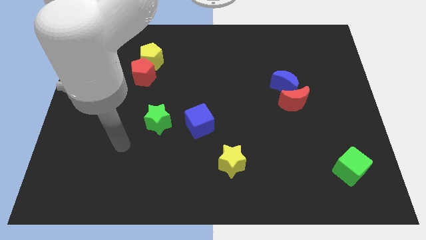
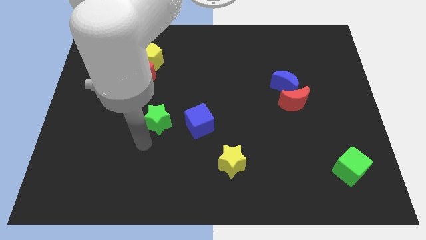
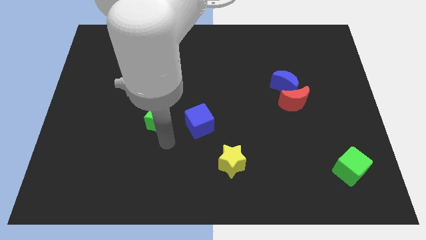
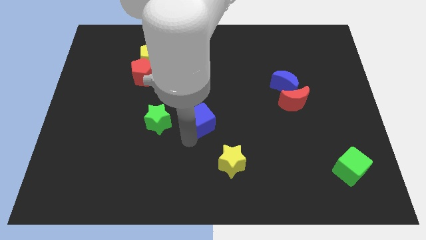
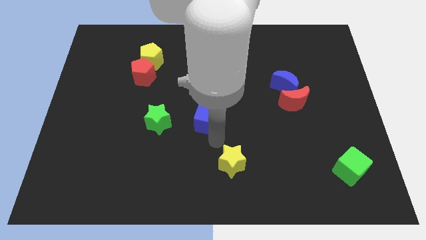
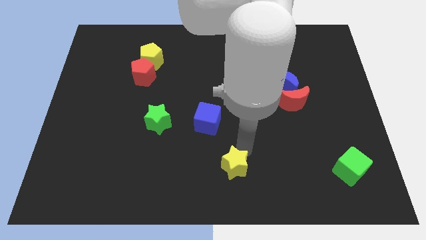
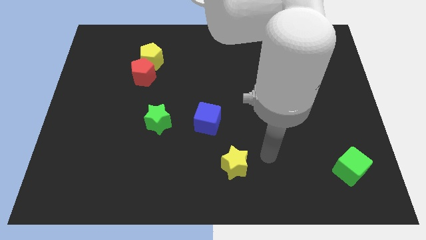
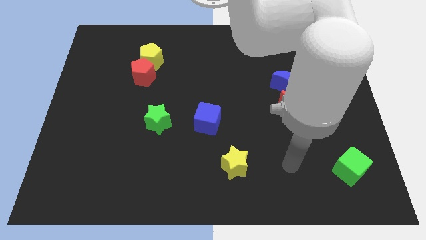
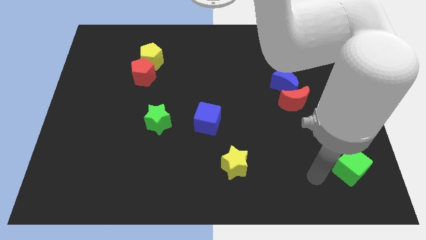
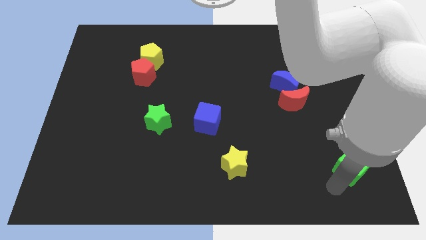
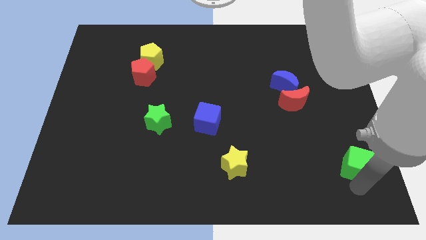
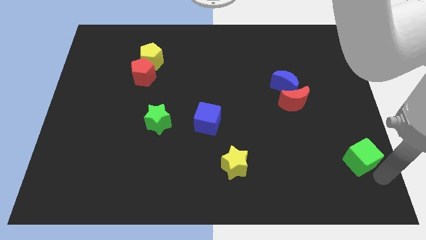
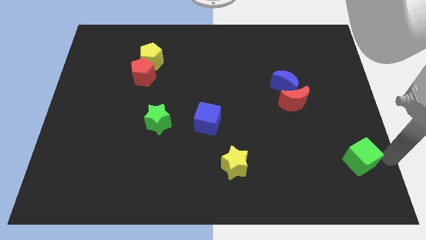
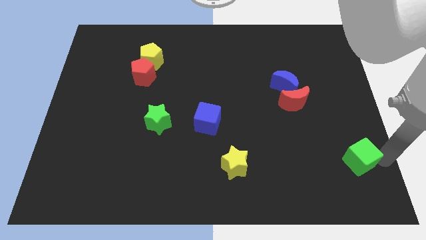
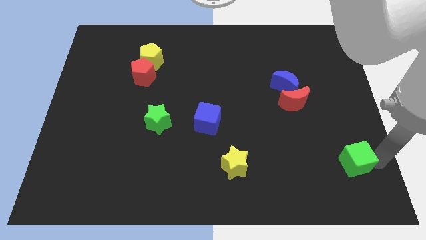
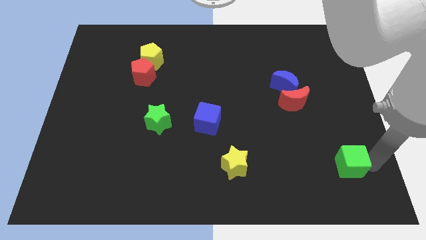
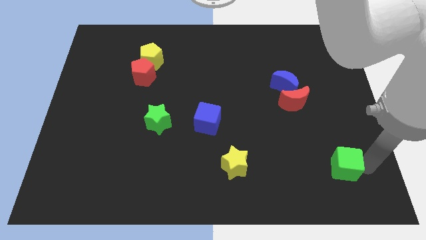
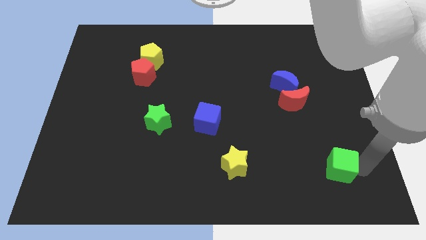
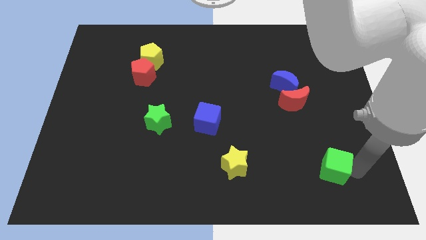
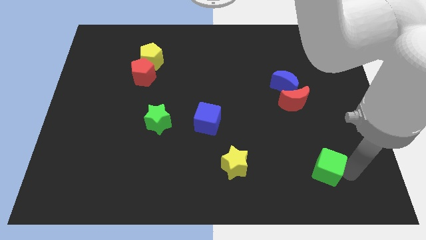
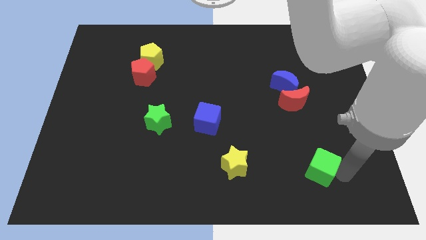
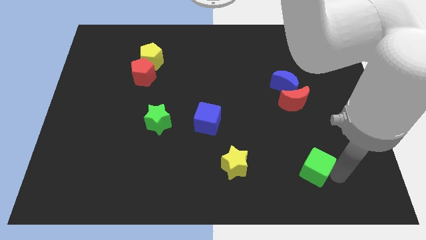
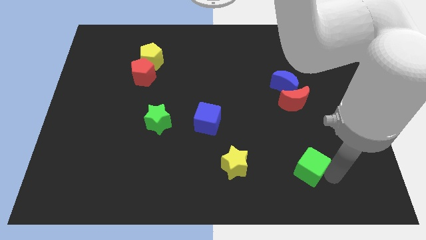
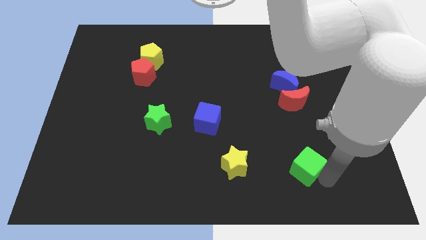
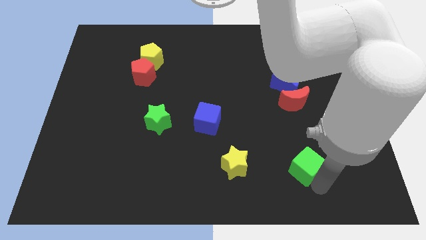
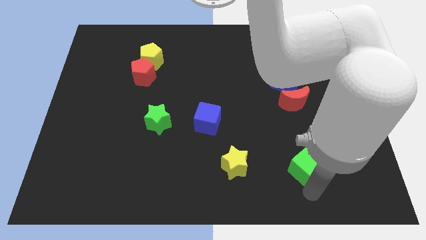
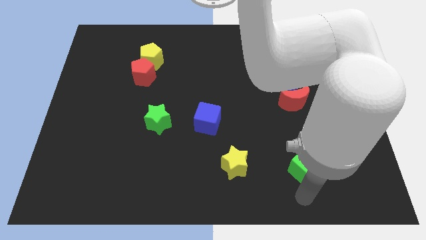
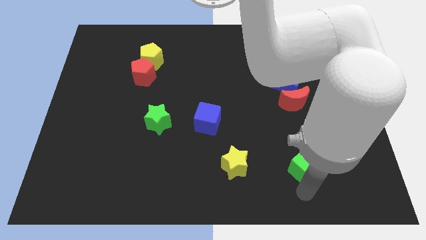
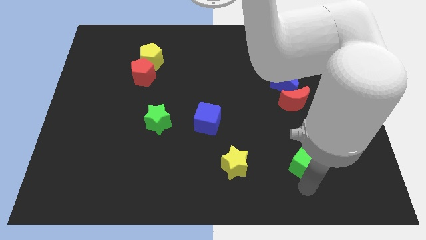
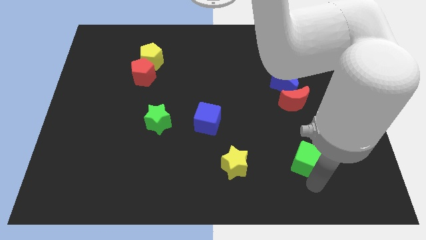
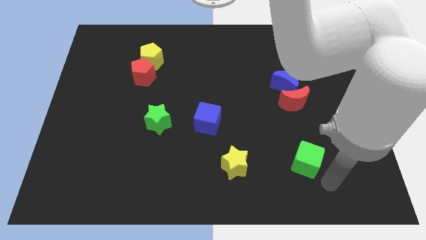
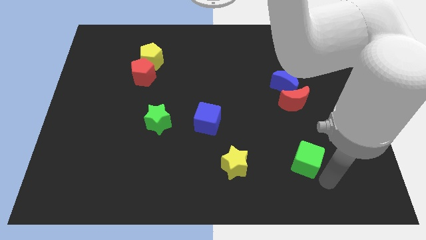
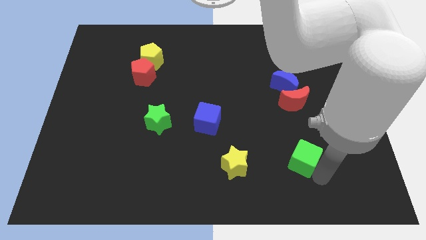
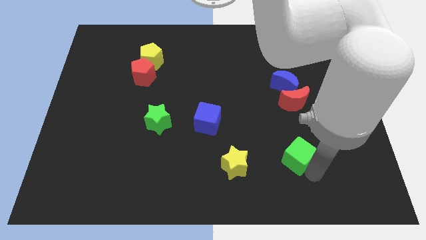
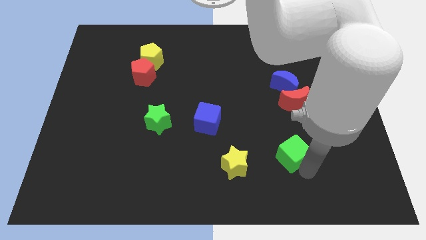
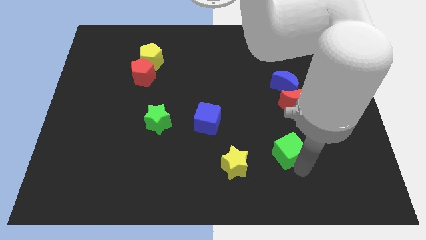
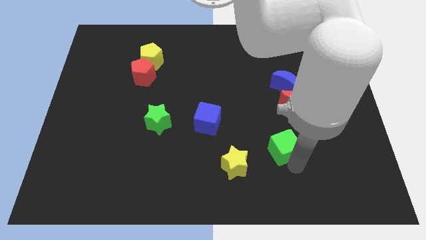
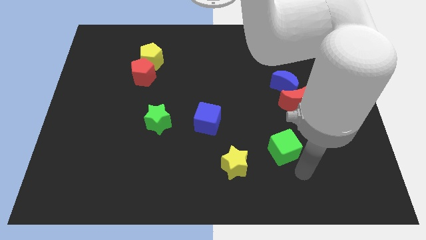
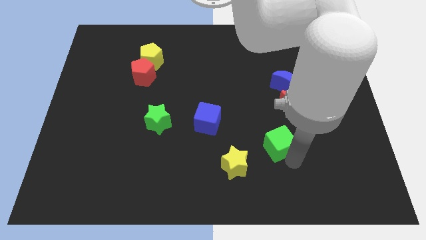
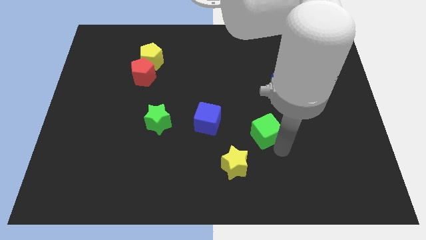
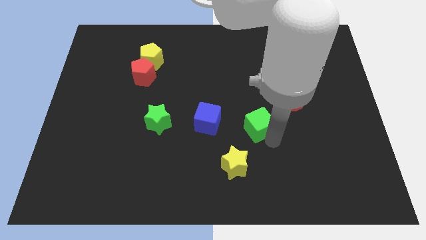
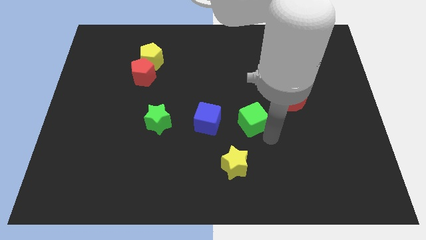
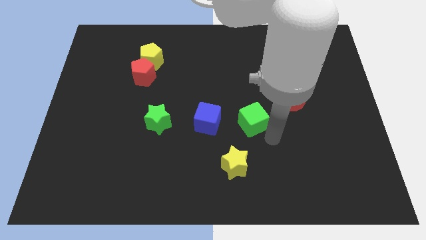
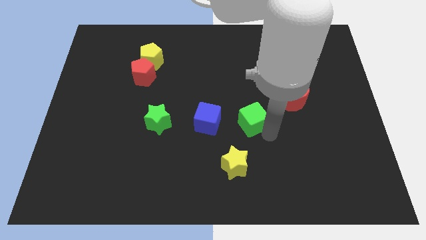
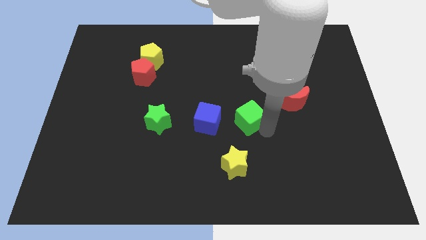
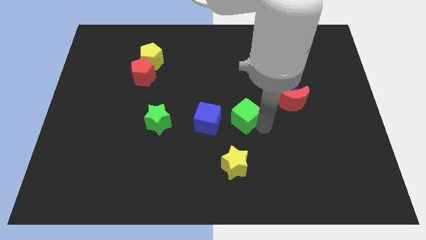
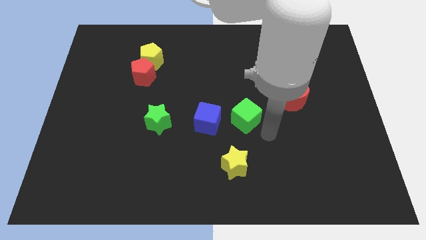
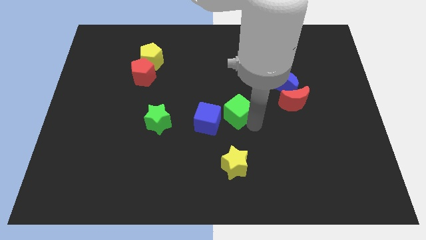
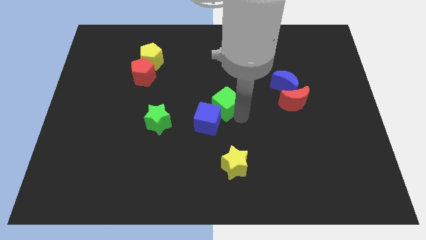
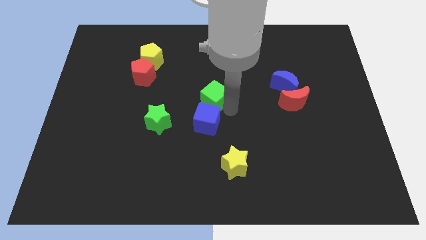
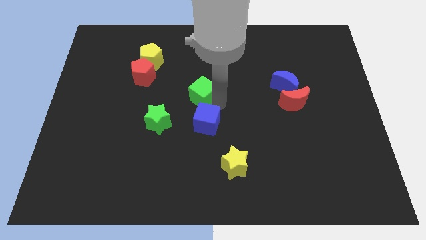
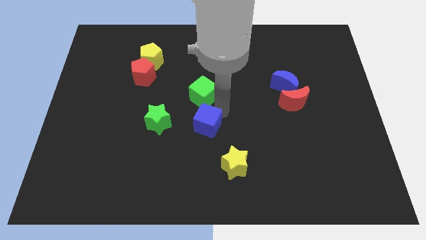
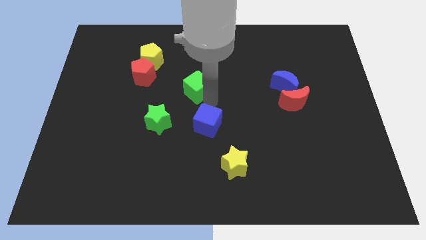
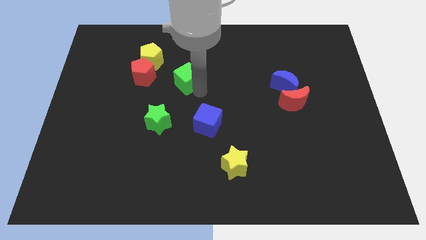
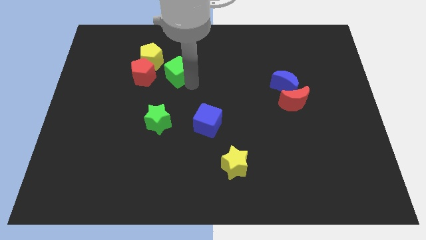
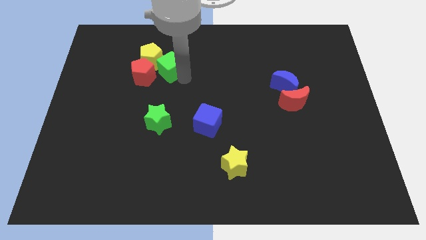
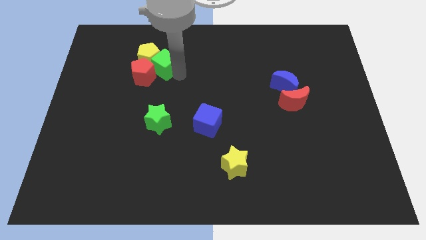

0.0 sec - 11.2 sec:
move the green cube close to the yellow pentagon

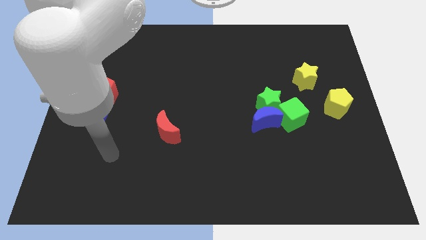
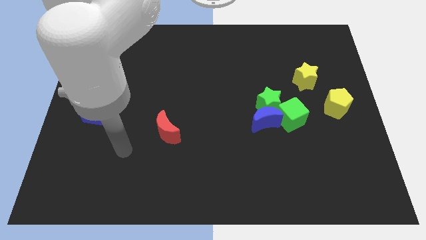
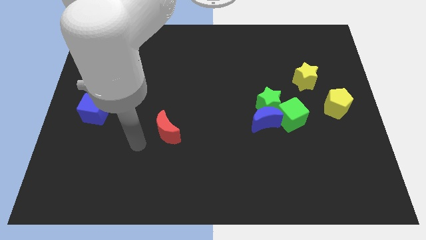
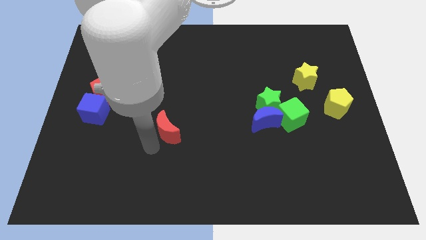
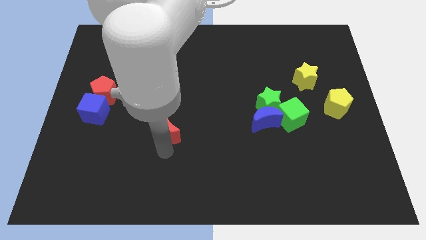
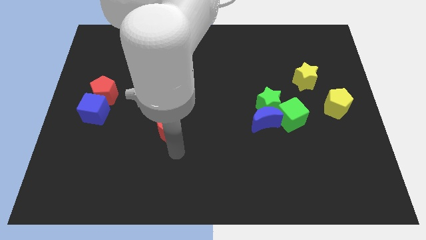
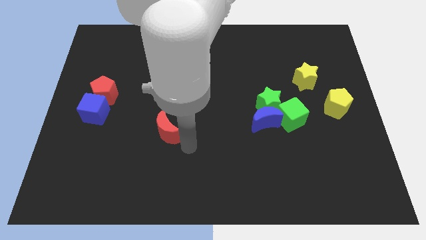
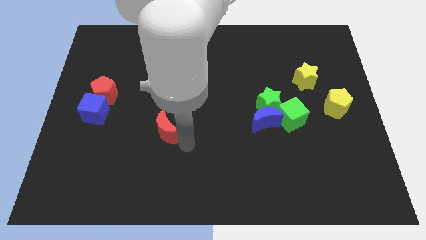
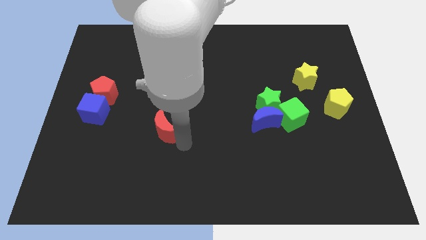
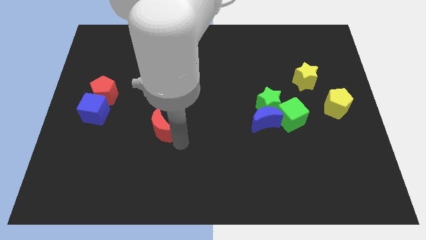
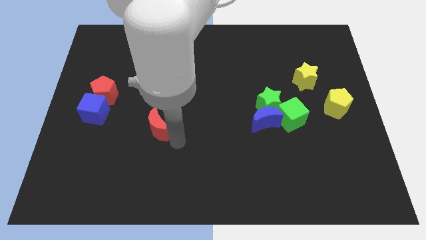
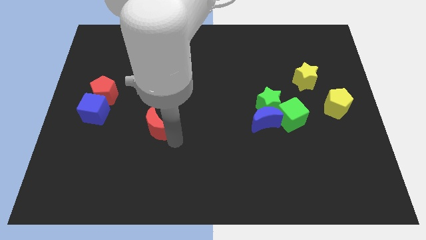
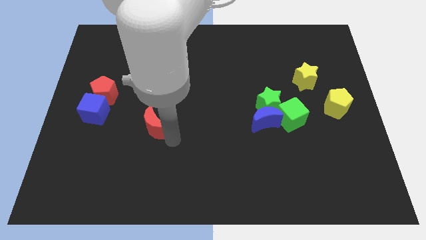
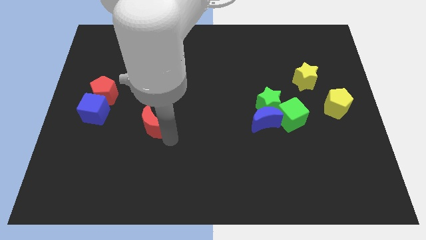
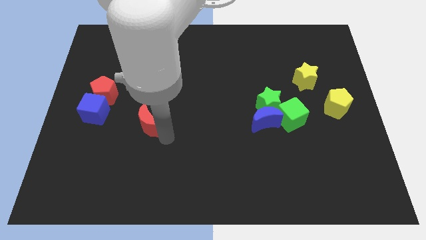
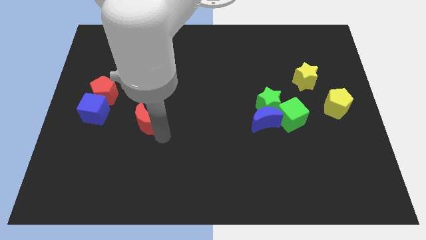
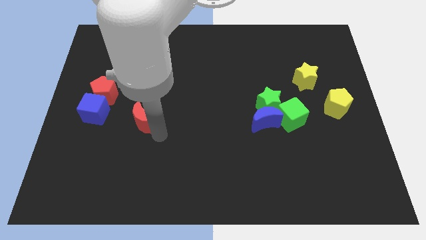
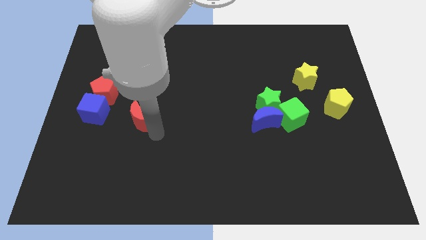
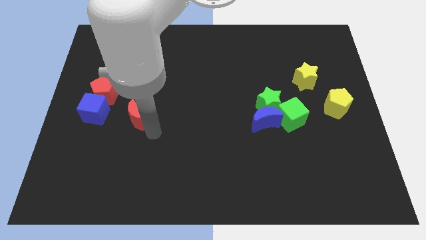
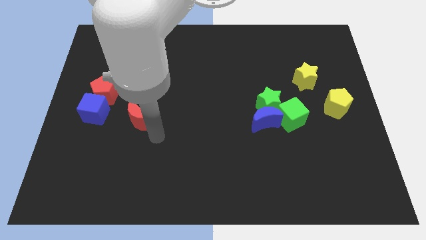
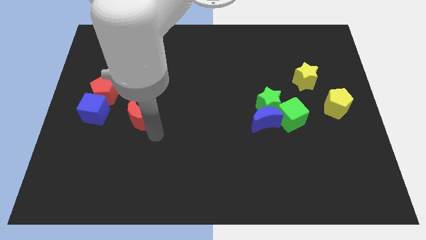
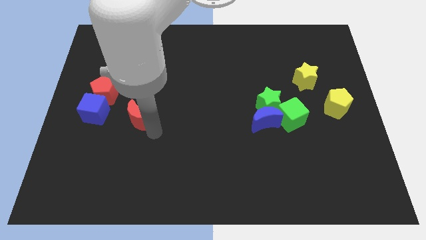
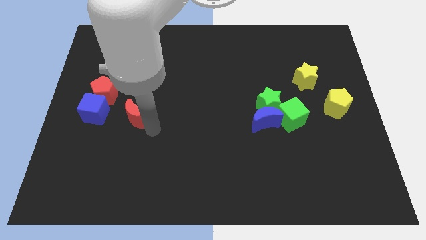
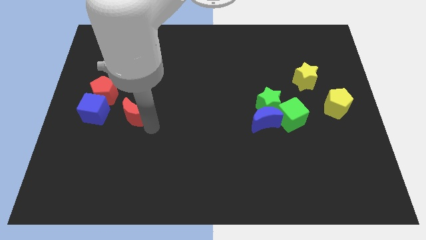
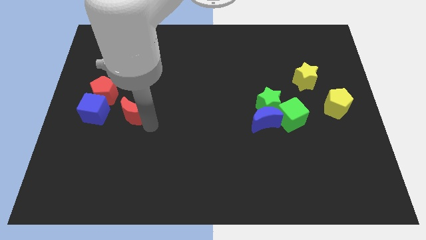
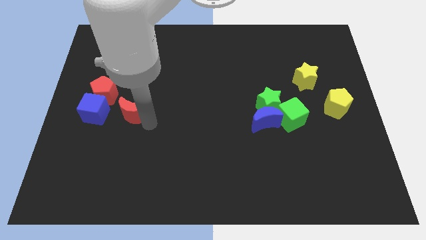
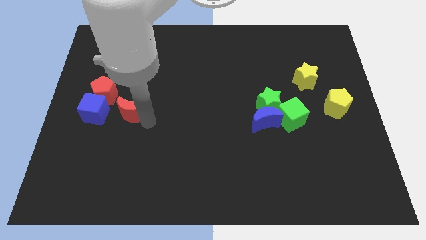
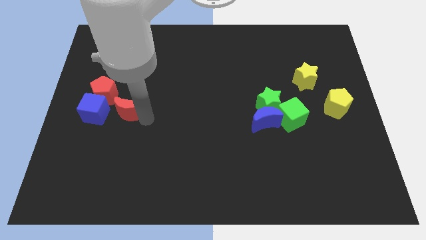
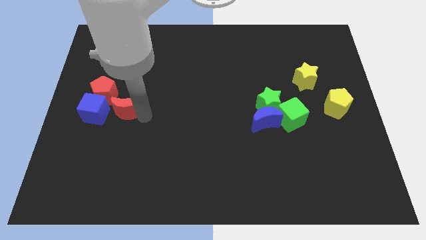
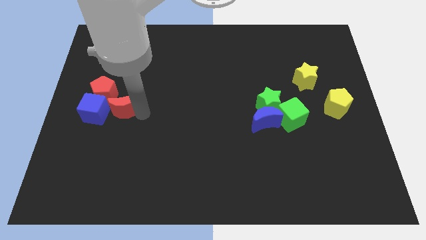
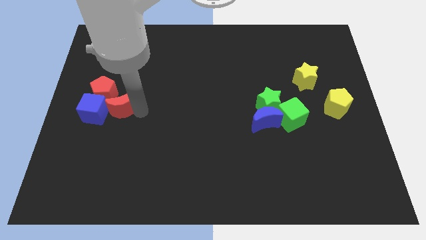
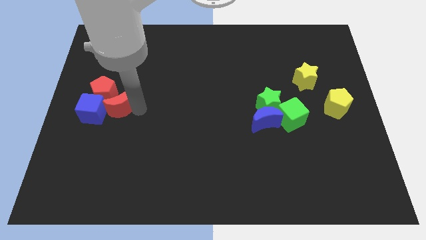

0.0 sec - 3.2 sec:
put the red moon towards the red pentagon
